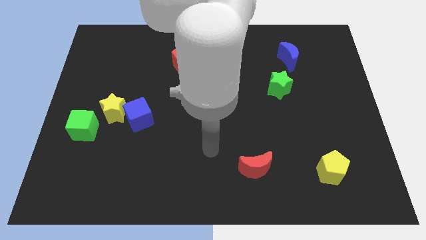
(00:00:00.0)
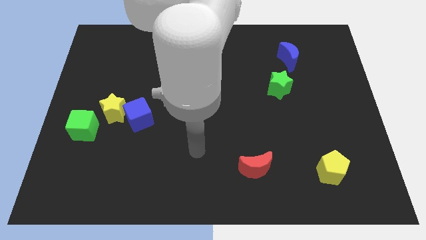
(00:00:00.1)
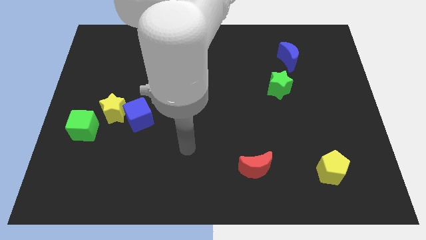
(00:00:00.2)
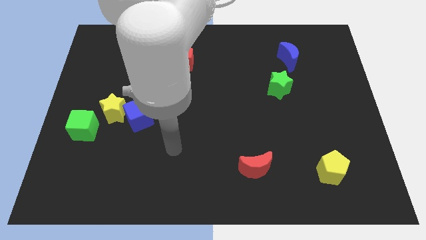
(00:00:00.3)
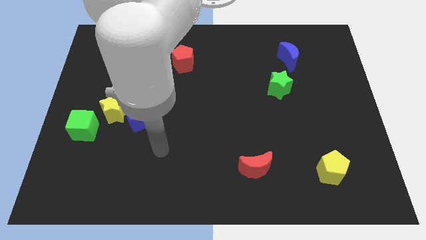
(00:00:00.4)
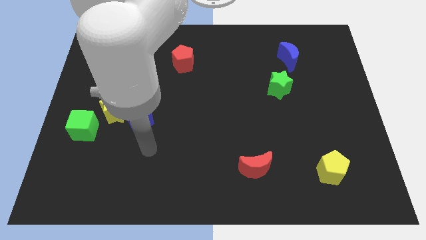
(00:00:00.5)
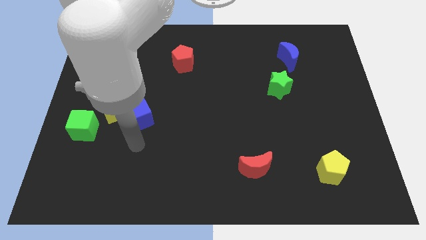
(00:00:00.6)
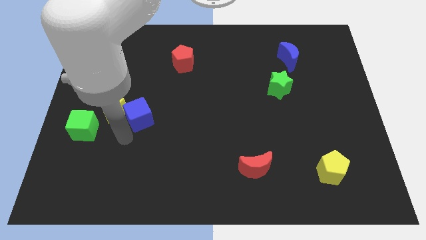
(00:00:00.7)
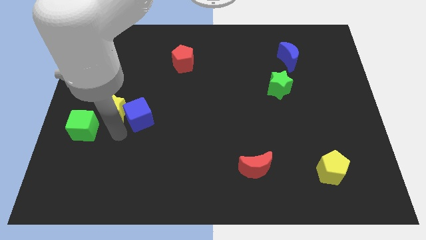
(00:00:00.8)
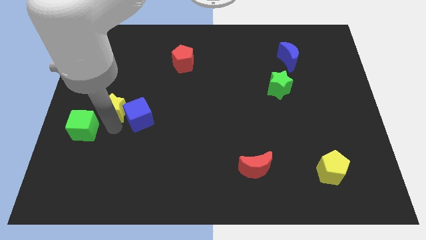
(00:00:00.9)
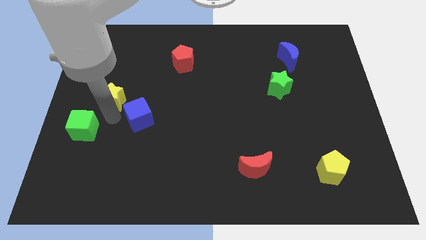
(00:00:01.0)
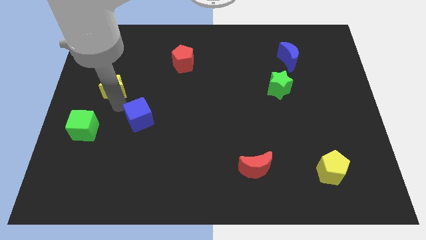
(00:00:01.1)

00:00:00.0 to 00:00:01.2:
move the blue cube away from the yellow star

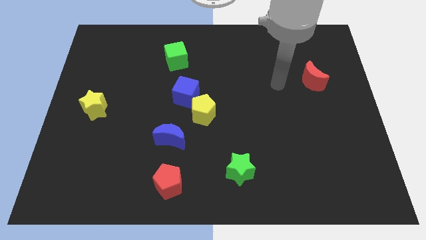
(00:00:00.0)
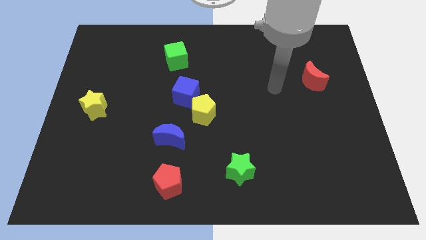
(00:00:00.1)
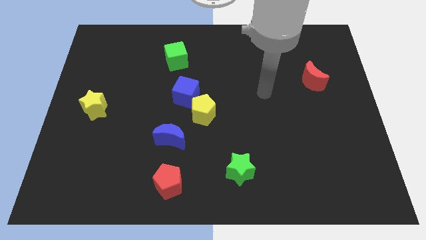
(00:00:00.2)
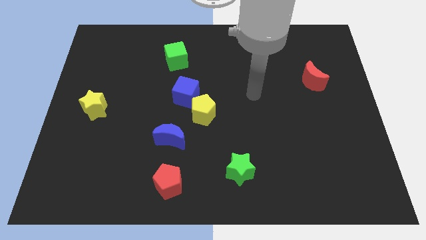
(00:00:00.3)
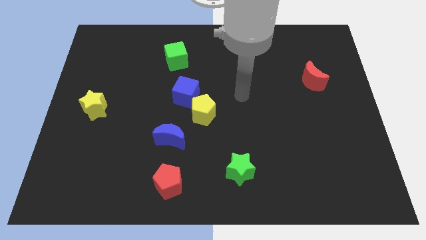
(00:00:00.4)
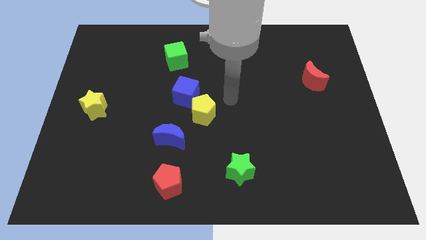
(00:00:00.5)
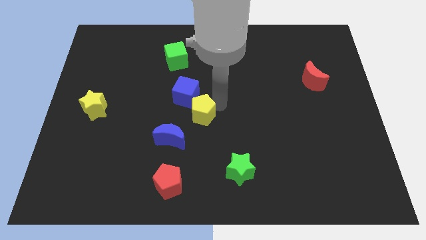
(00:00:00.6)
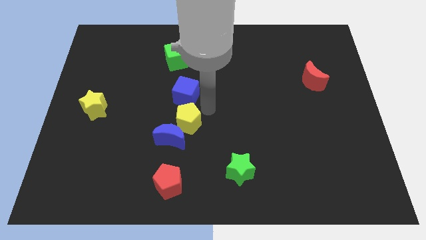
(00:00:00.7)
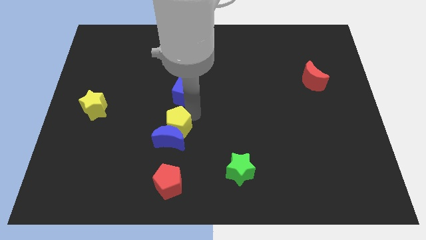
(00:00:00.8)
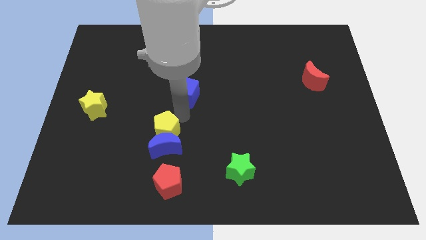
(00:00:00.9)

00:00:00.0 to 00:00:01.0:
separate the blue cube from the yellow pentagon

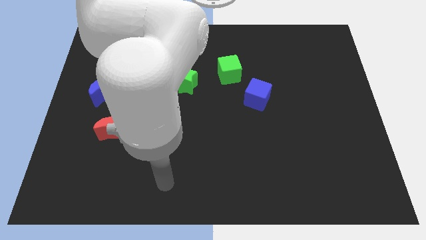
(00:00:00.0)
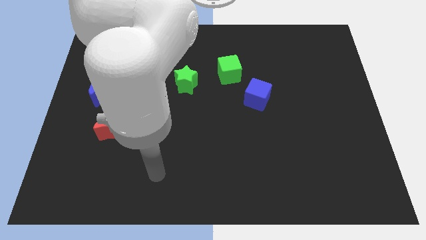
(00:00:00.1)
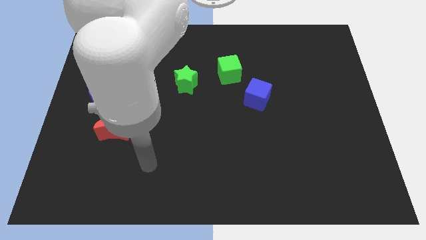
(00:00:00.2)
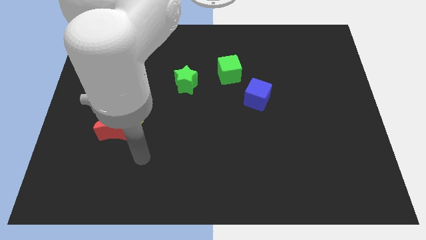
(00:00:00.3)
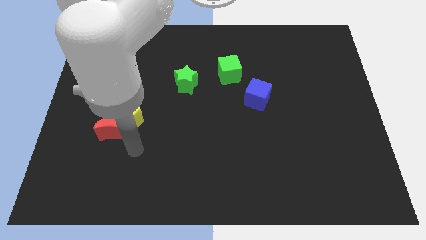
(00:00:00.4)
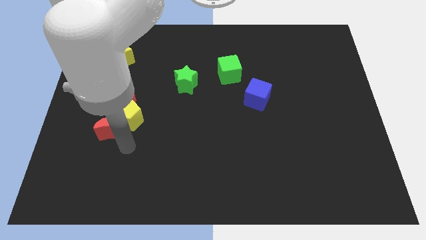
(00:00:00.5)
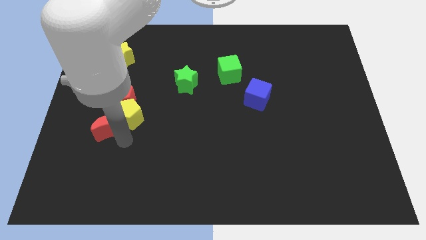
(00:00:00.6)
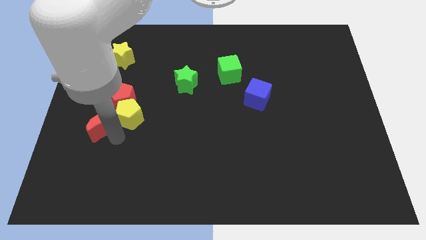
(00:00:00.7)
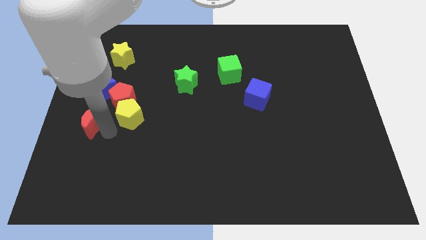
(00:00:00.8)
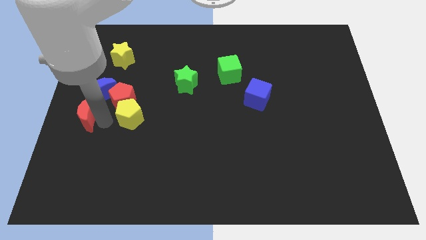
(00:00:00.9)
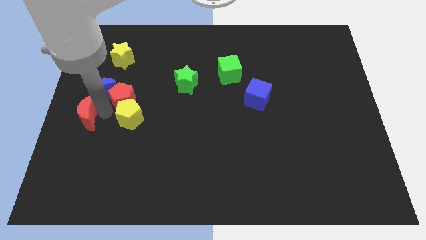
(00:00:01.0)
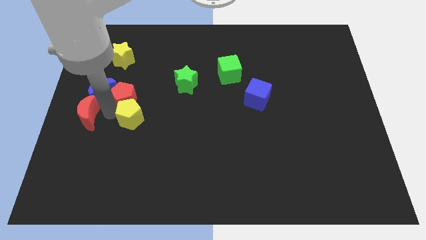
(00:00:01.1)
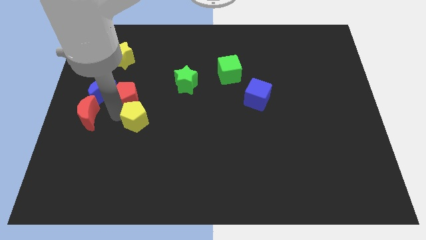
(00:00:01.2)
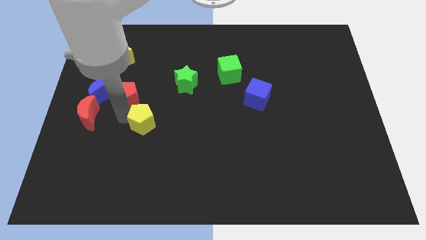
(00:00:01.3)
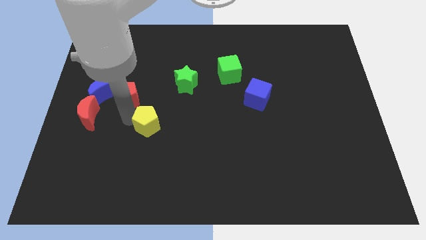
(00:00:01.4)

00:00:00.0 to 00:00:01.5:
separate the yellow pentagon from the red moon and red pentagon

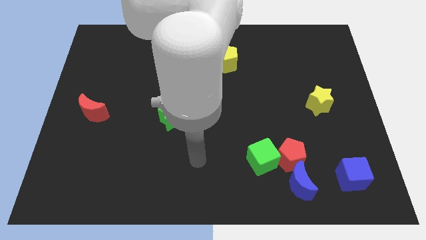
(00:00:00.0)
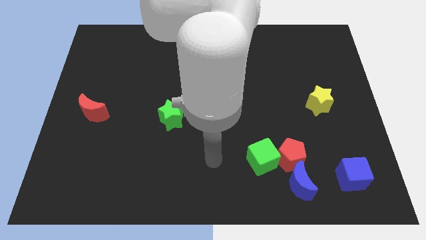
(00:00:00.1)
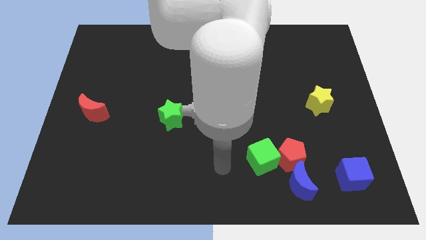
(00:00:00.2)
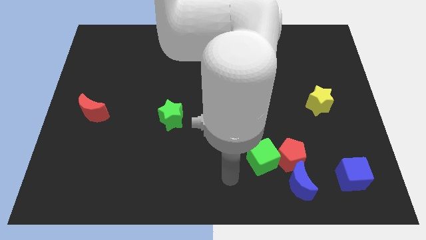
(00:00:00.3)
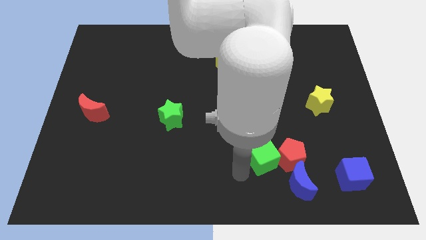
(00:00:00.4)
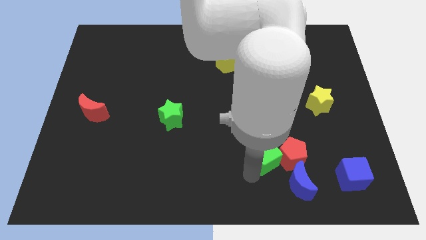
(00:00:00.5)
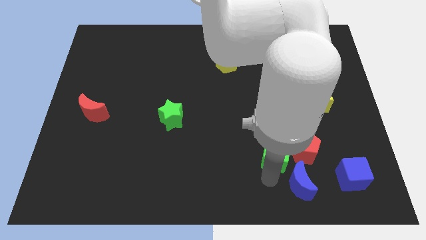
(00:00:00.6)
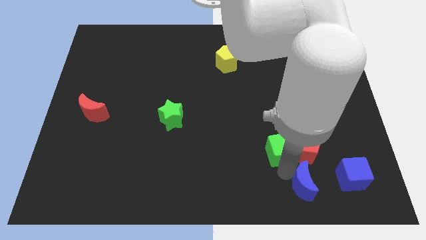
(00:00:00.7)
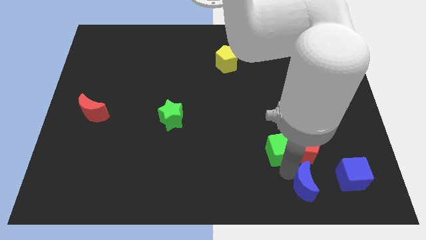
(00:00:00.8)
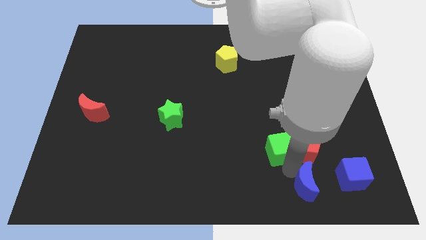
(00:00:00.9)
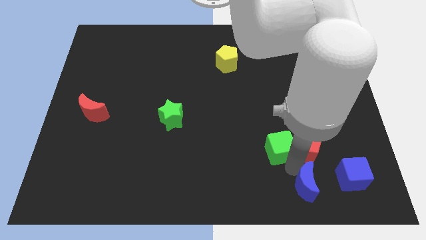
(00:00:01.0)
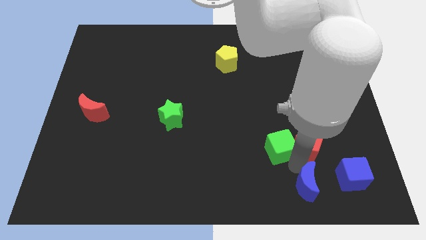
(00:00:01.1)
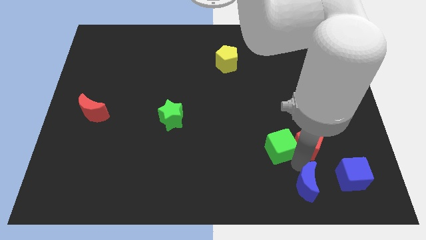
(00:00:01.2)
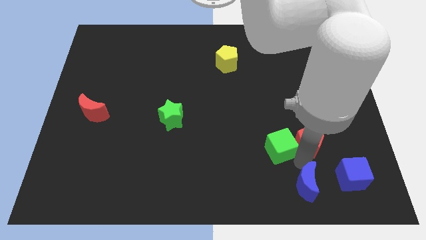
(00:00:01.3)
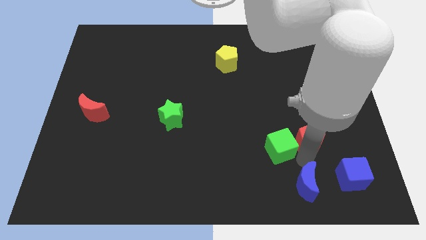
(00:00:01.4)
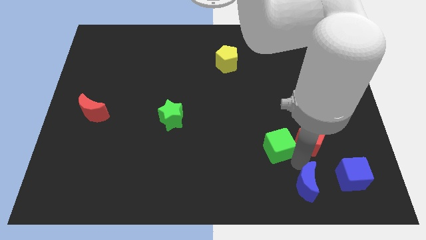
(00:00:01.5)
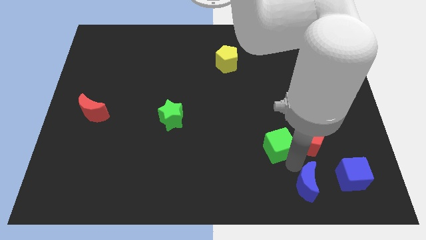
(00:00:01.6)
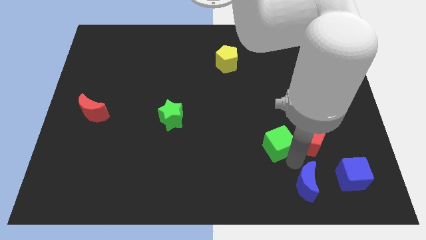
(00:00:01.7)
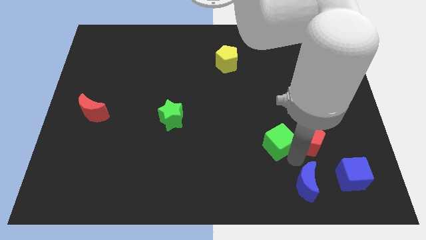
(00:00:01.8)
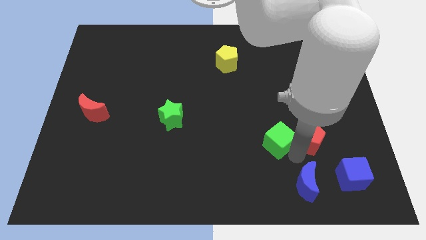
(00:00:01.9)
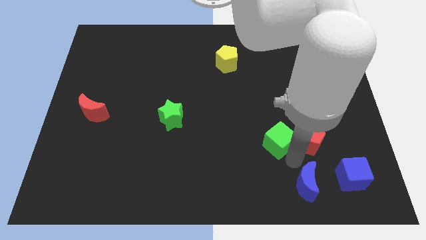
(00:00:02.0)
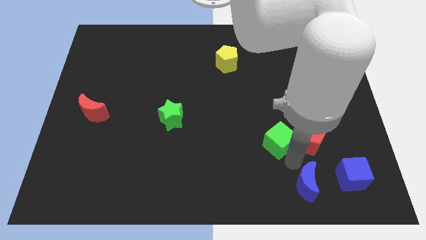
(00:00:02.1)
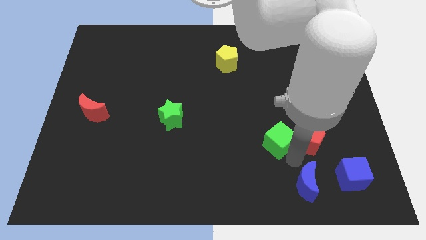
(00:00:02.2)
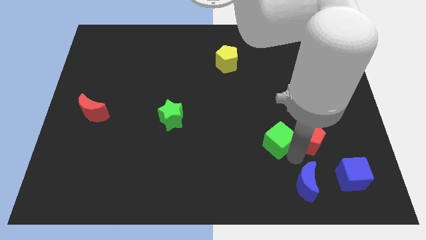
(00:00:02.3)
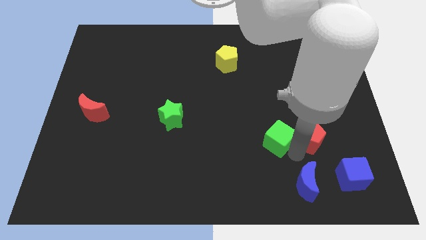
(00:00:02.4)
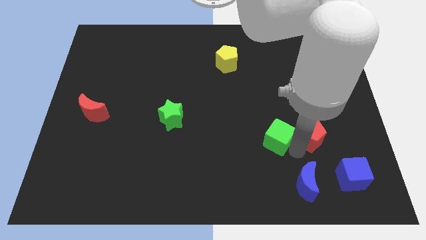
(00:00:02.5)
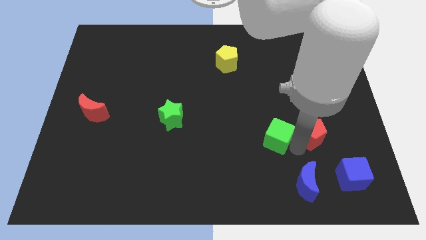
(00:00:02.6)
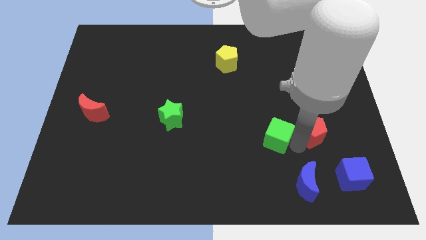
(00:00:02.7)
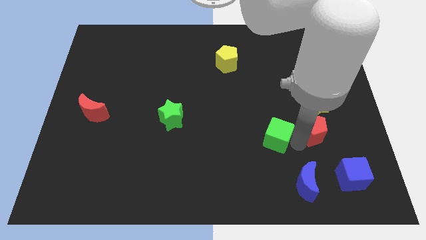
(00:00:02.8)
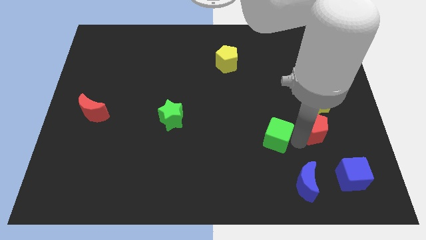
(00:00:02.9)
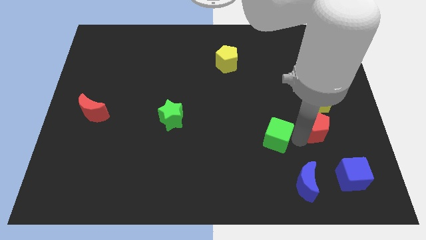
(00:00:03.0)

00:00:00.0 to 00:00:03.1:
pull the red pentagon apart from the green cube and blue moon

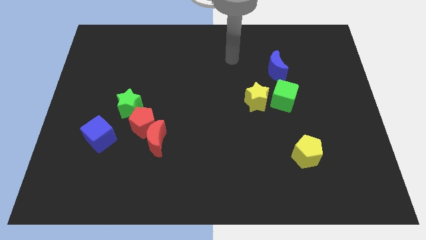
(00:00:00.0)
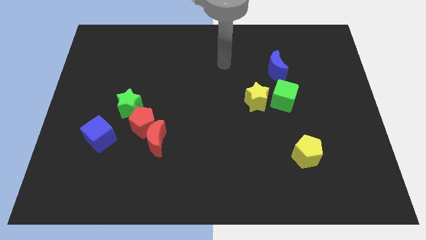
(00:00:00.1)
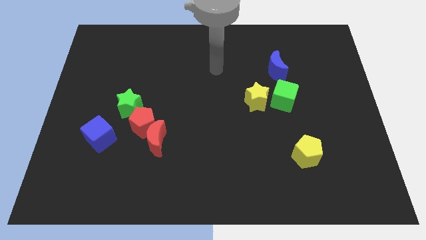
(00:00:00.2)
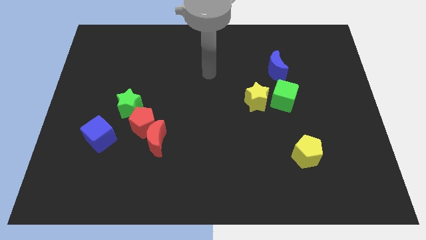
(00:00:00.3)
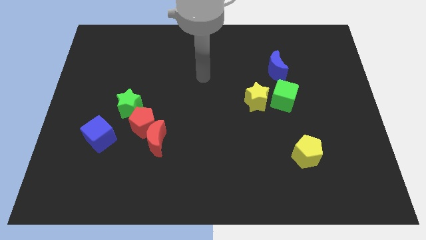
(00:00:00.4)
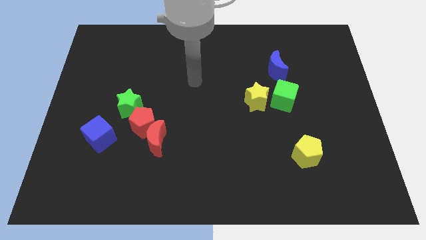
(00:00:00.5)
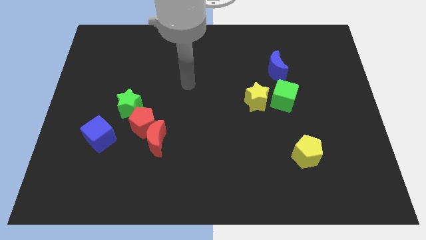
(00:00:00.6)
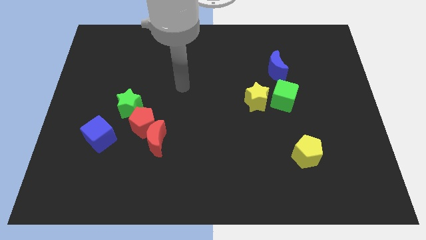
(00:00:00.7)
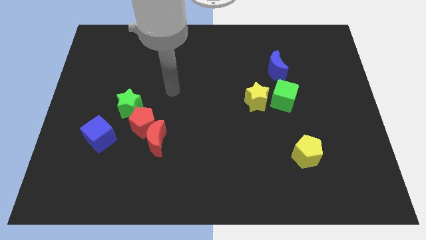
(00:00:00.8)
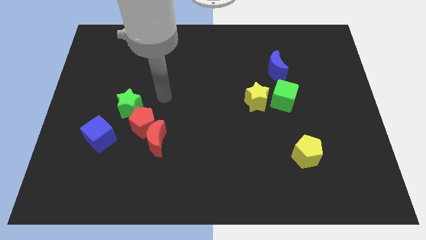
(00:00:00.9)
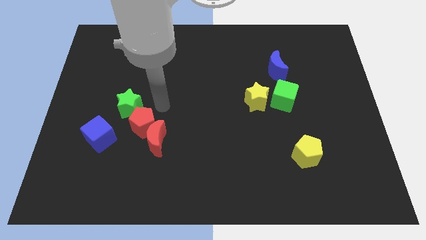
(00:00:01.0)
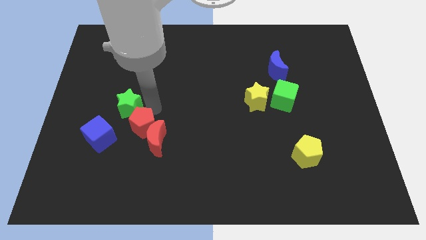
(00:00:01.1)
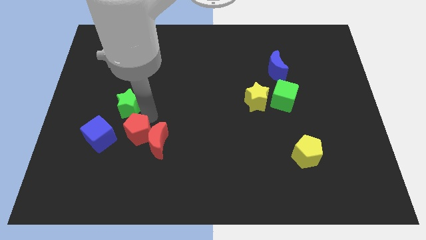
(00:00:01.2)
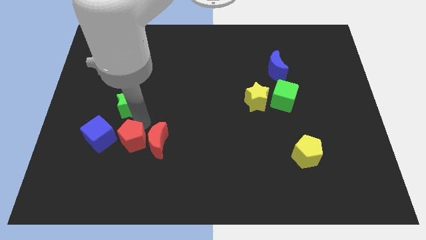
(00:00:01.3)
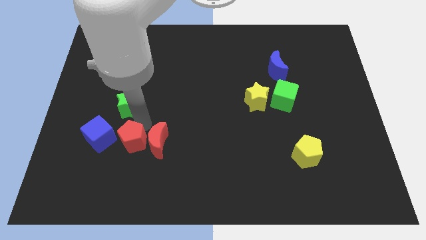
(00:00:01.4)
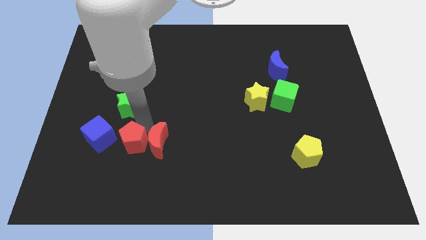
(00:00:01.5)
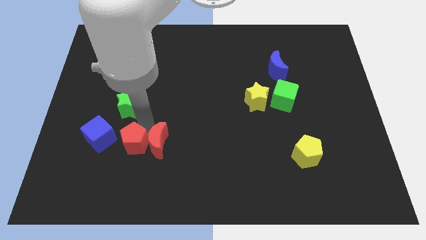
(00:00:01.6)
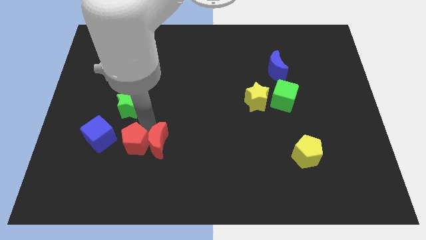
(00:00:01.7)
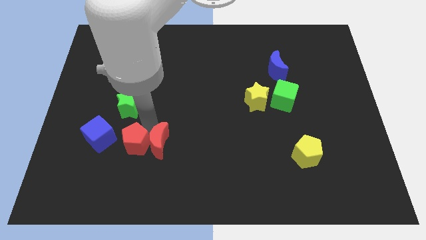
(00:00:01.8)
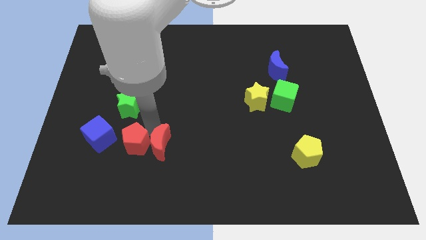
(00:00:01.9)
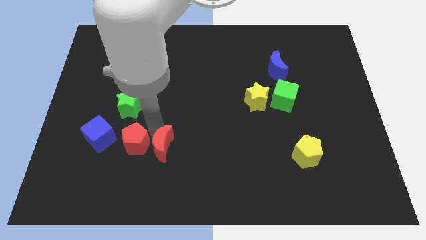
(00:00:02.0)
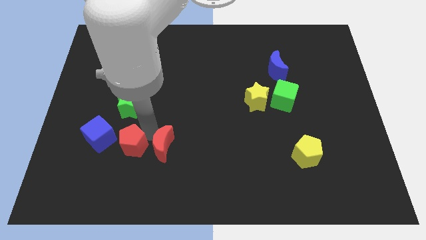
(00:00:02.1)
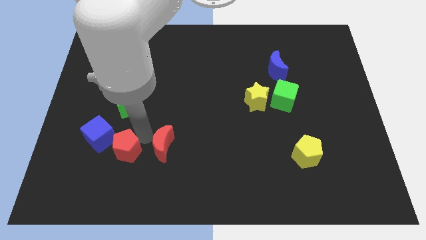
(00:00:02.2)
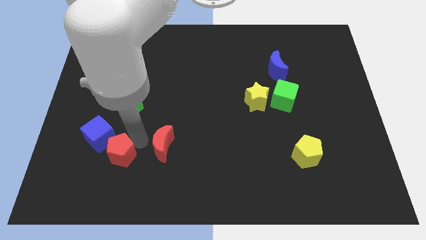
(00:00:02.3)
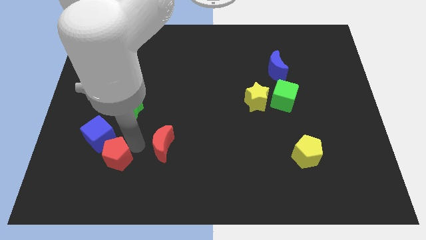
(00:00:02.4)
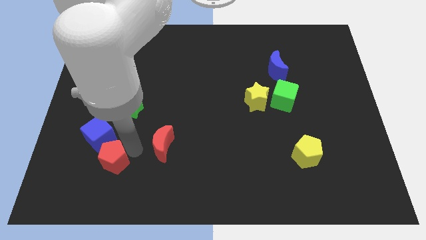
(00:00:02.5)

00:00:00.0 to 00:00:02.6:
pull the red moon apart from the red pentagon
